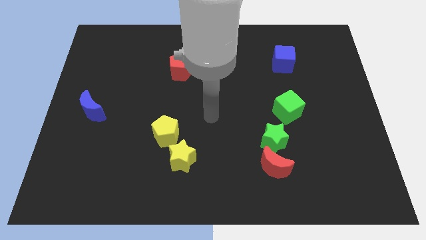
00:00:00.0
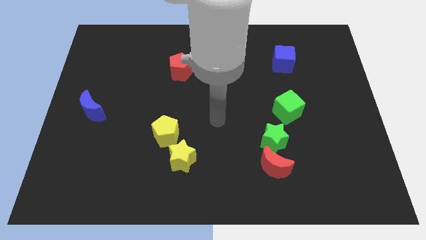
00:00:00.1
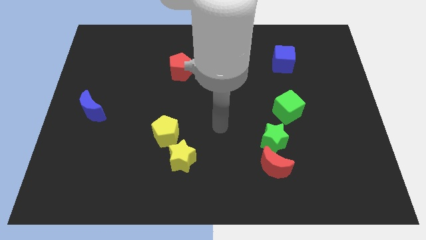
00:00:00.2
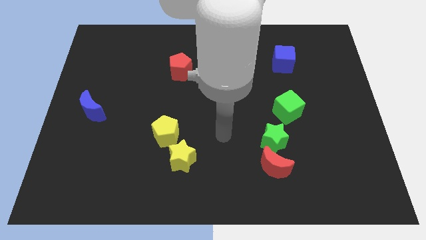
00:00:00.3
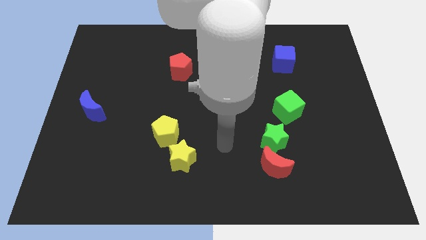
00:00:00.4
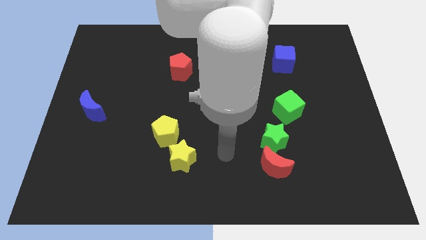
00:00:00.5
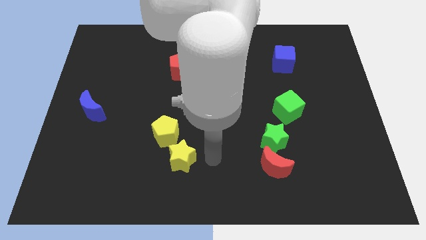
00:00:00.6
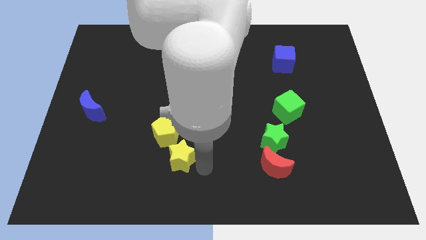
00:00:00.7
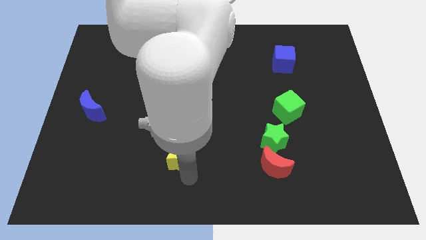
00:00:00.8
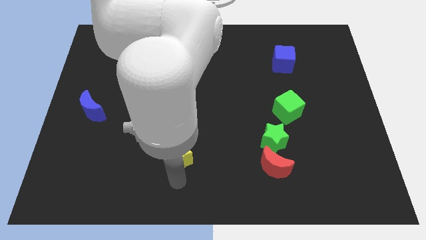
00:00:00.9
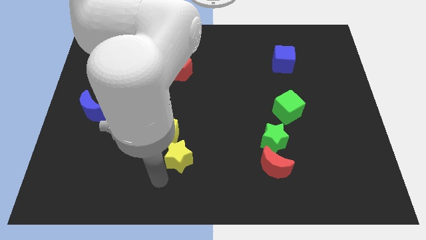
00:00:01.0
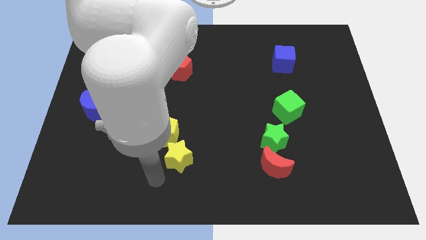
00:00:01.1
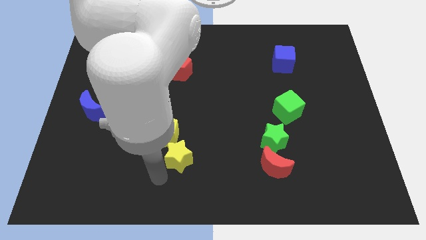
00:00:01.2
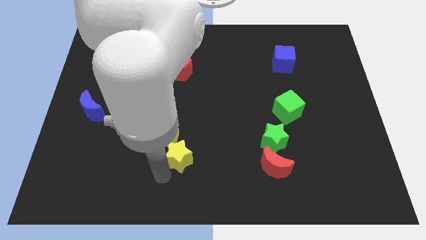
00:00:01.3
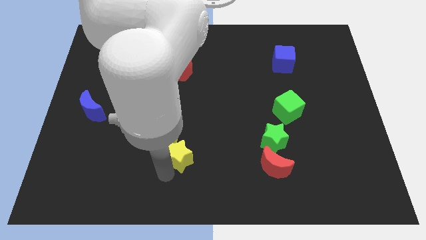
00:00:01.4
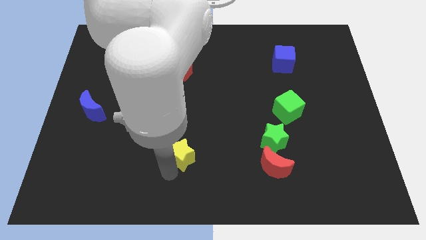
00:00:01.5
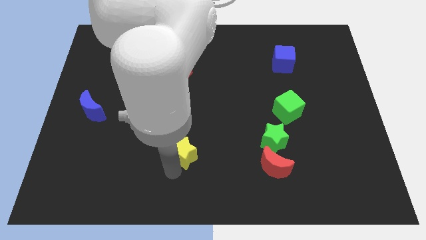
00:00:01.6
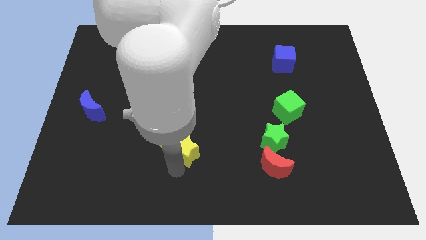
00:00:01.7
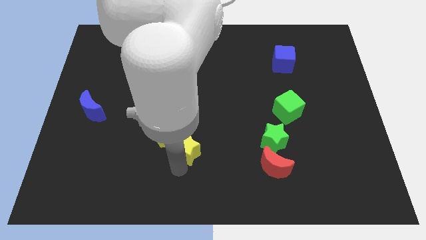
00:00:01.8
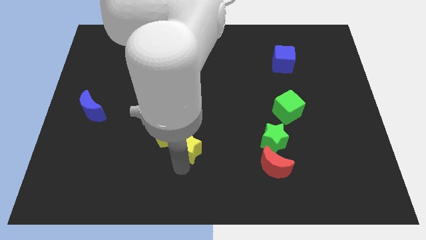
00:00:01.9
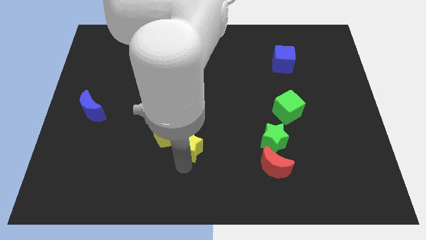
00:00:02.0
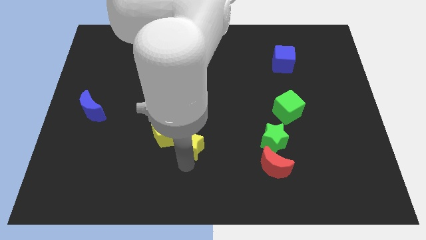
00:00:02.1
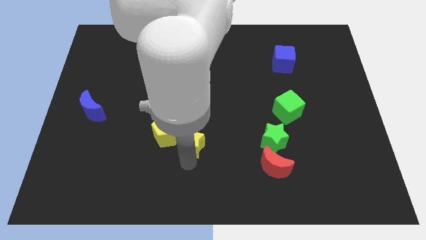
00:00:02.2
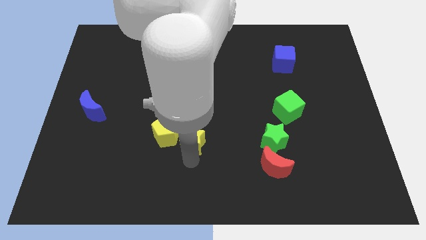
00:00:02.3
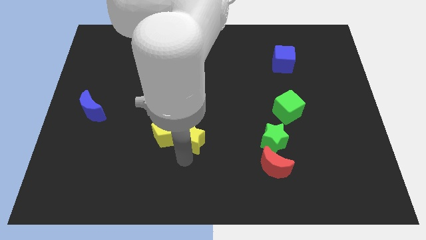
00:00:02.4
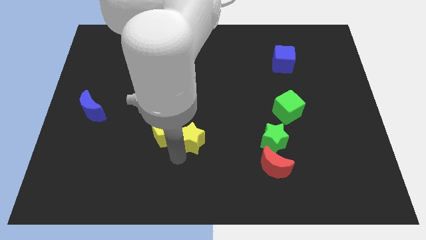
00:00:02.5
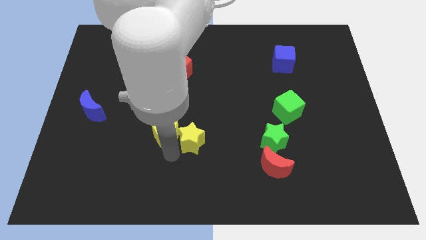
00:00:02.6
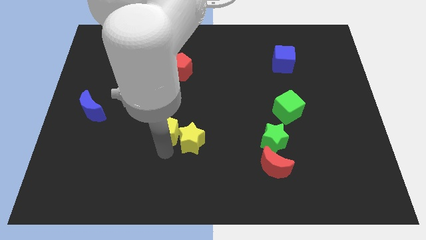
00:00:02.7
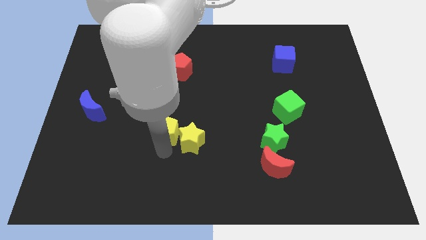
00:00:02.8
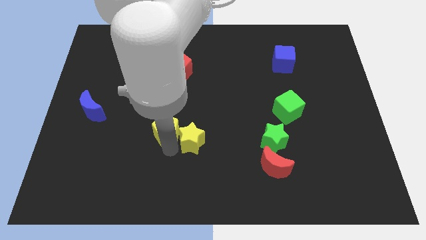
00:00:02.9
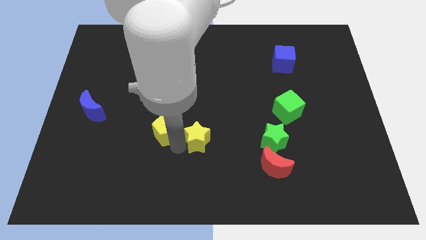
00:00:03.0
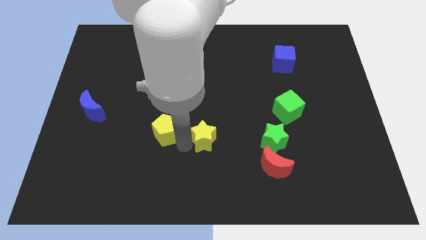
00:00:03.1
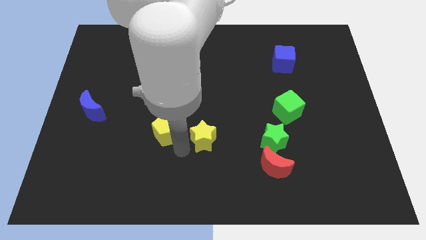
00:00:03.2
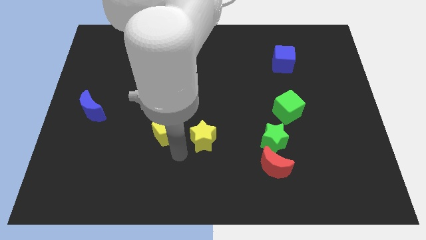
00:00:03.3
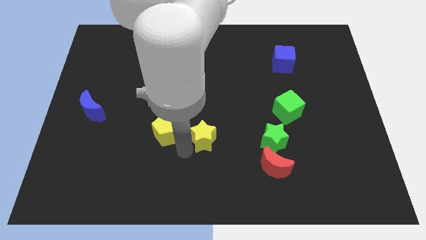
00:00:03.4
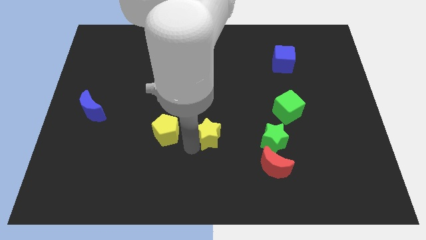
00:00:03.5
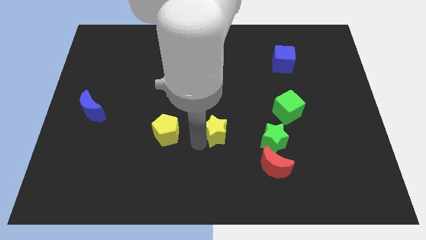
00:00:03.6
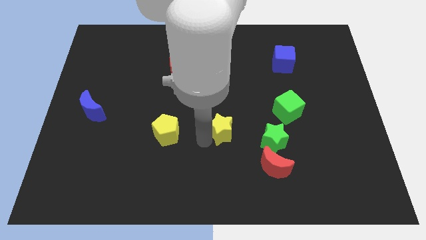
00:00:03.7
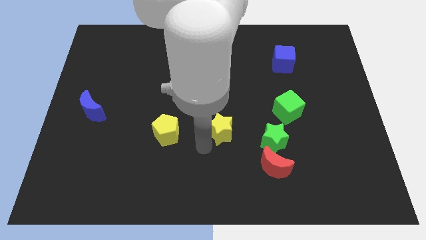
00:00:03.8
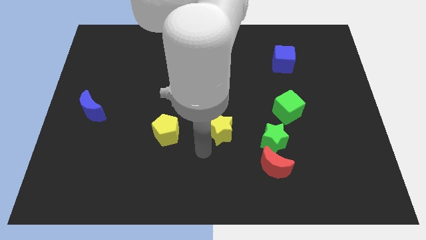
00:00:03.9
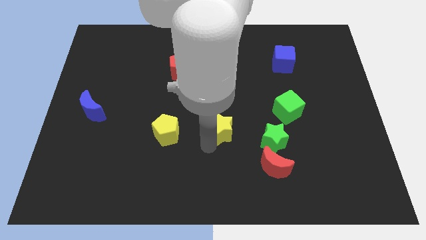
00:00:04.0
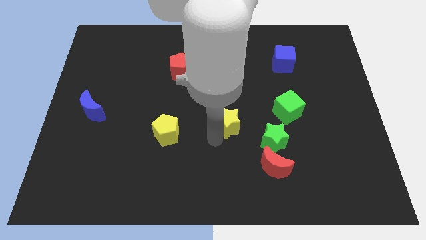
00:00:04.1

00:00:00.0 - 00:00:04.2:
put the yellow star to the left side of the green cube

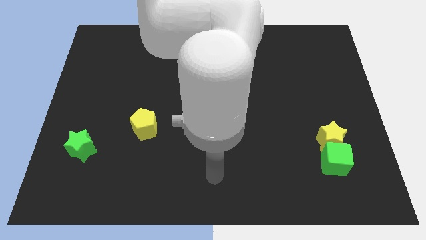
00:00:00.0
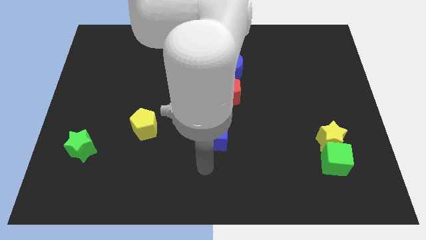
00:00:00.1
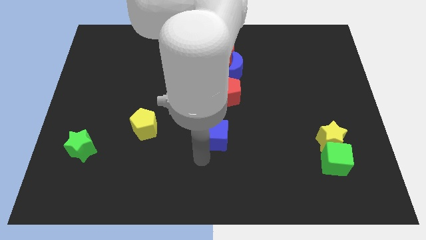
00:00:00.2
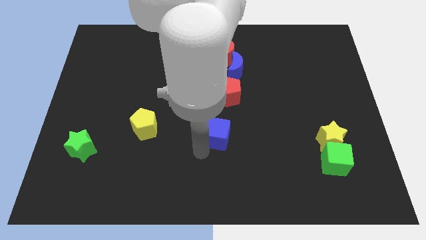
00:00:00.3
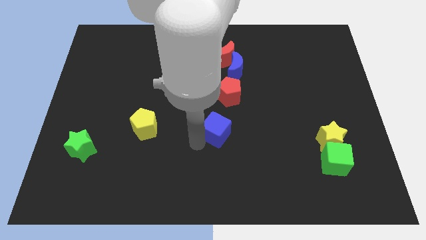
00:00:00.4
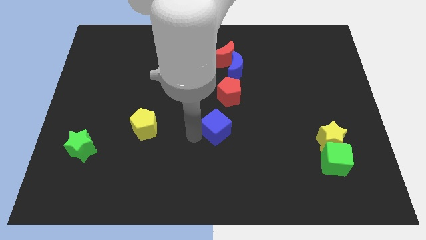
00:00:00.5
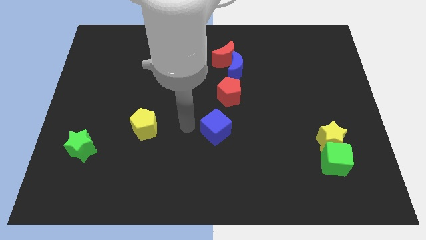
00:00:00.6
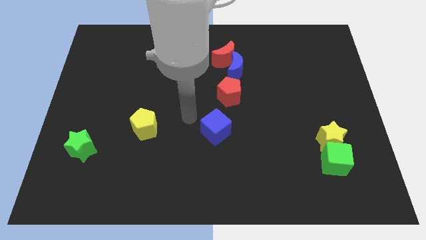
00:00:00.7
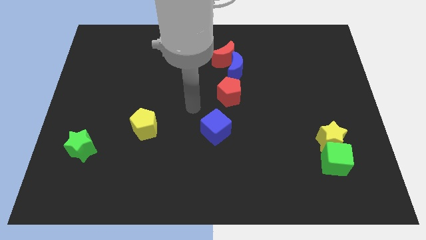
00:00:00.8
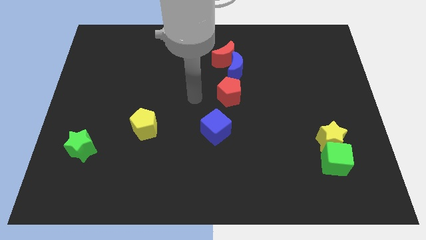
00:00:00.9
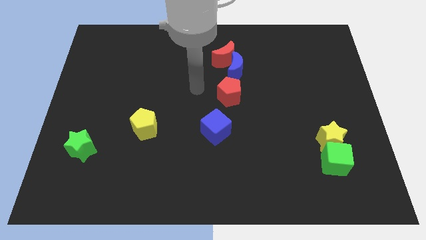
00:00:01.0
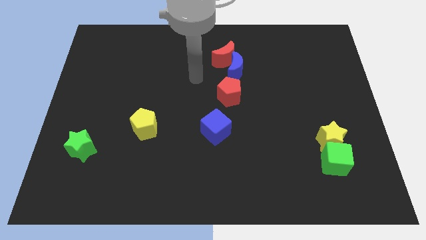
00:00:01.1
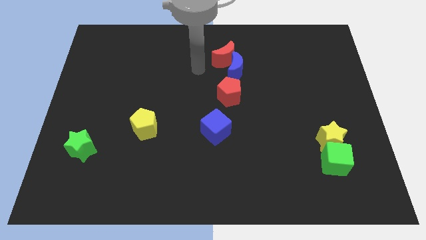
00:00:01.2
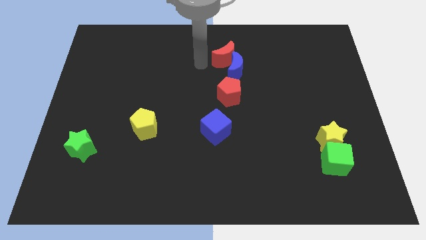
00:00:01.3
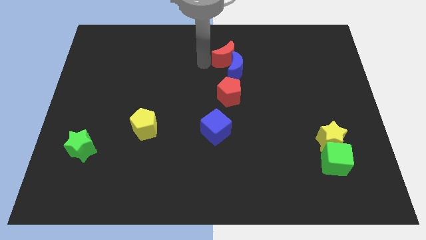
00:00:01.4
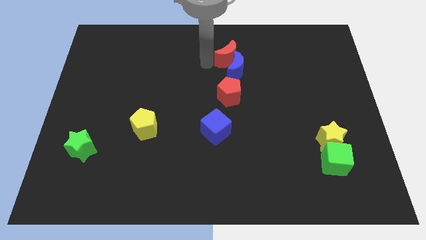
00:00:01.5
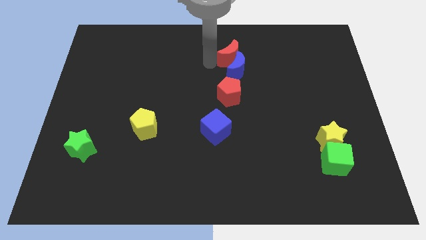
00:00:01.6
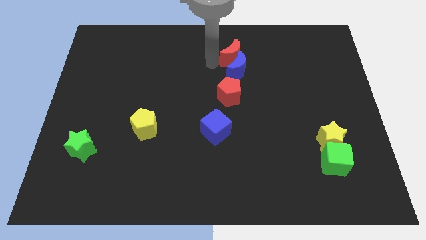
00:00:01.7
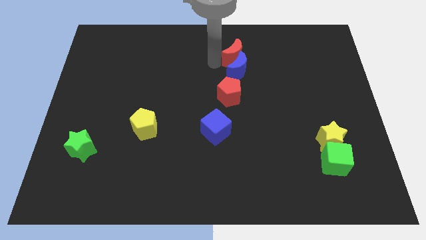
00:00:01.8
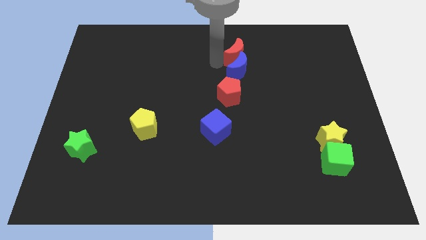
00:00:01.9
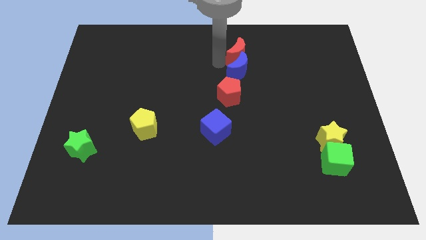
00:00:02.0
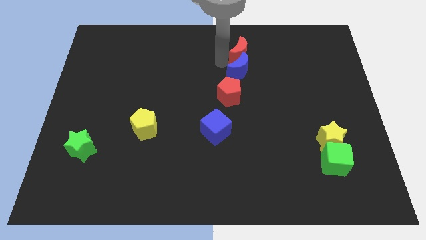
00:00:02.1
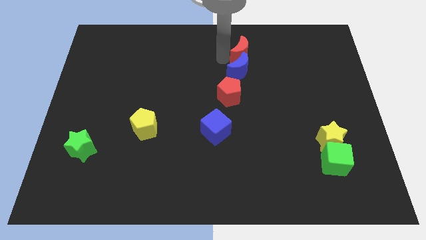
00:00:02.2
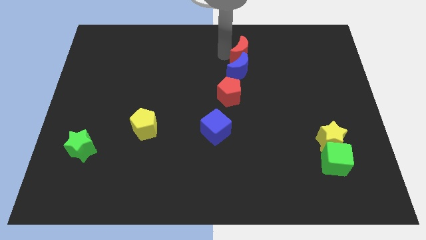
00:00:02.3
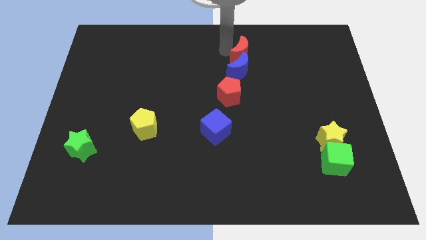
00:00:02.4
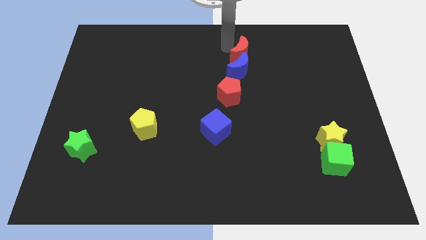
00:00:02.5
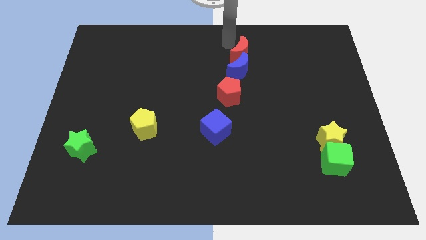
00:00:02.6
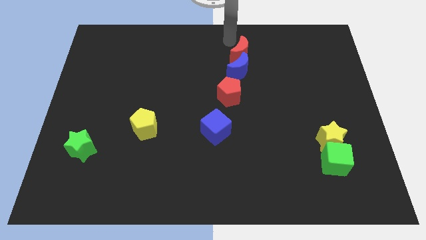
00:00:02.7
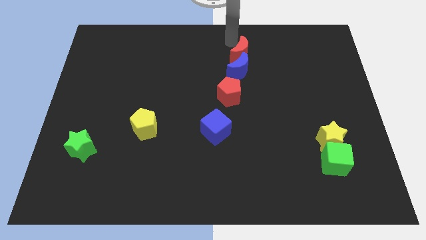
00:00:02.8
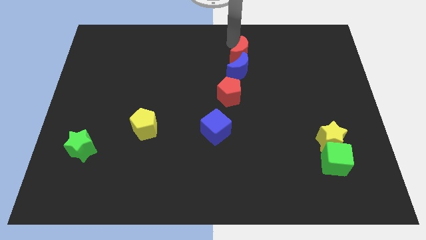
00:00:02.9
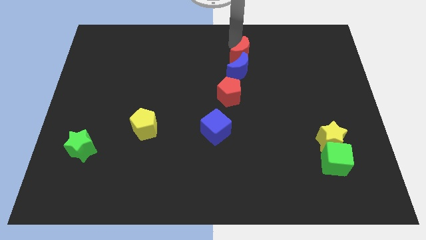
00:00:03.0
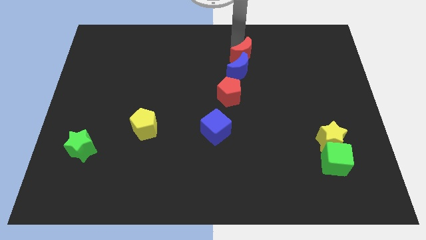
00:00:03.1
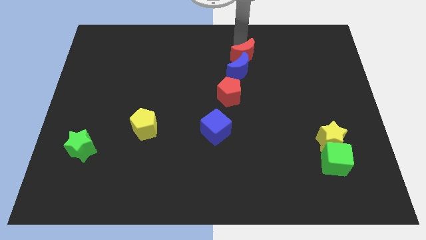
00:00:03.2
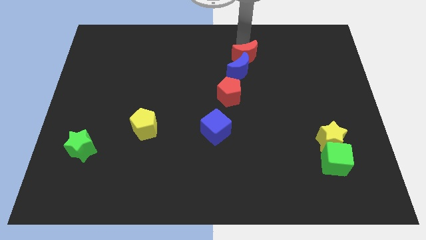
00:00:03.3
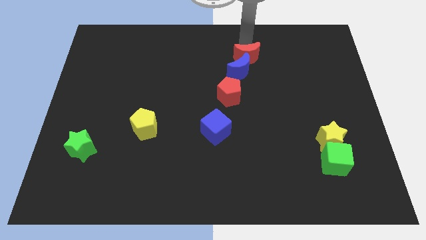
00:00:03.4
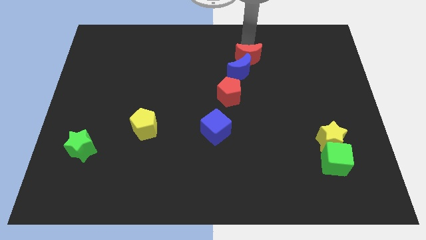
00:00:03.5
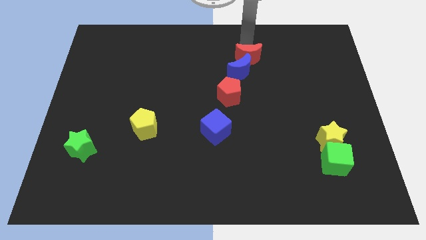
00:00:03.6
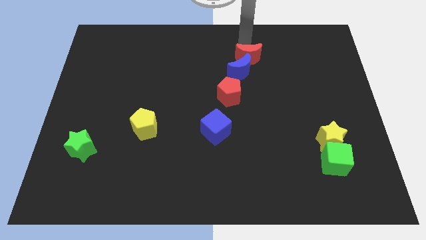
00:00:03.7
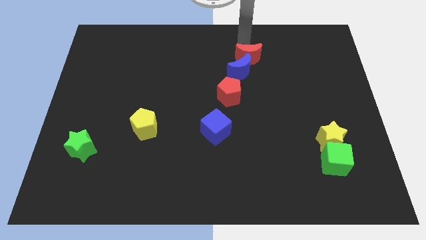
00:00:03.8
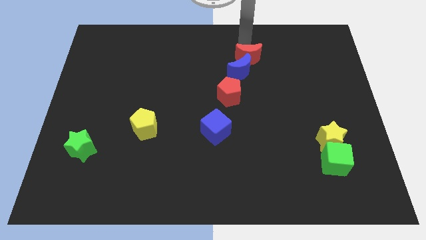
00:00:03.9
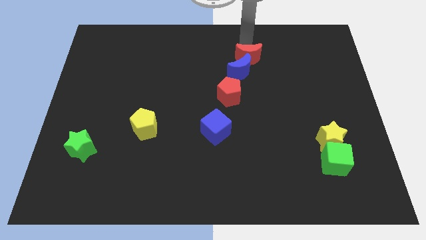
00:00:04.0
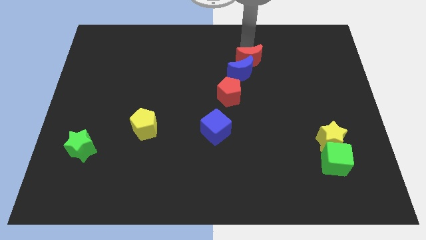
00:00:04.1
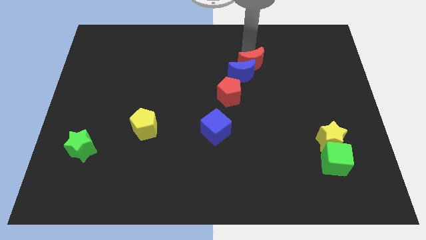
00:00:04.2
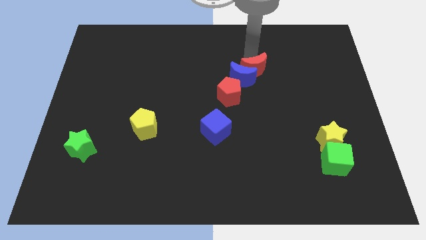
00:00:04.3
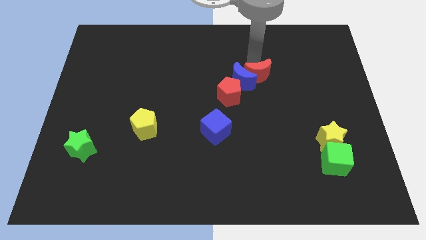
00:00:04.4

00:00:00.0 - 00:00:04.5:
push the red moon to the bottom right side of the blue moon
